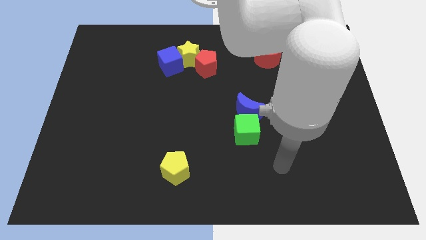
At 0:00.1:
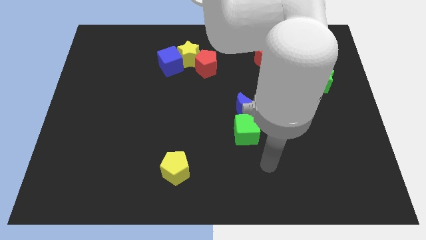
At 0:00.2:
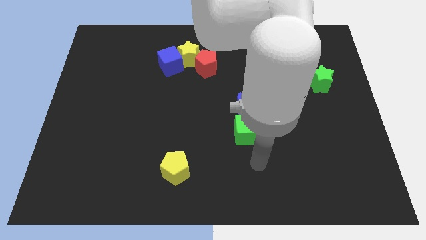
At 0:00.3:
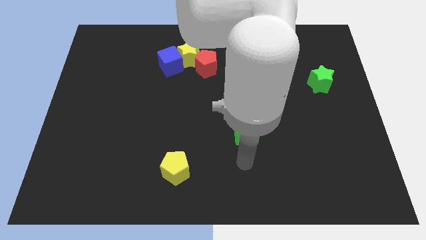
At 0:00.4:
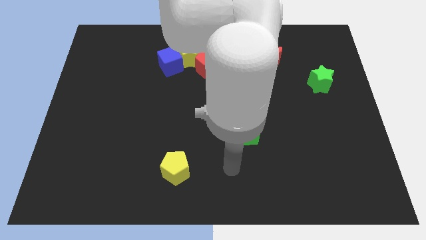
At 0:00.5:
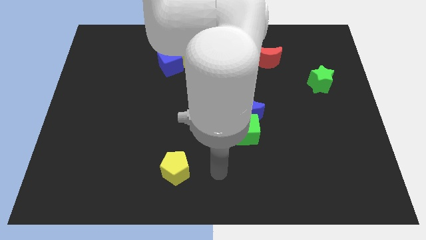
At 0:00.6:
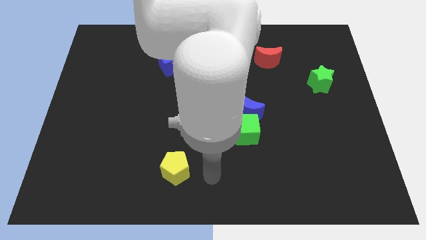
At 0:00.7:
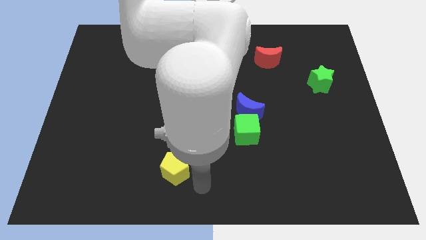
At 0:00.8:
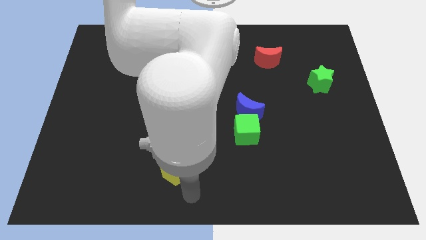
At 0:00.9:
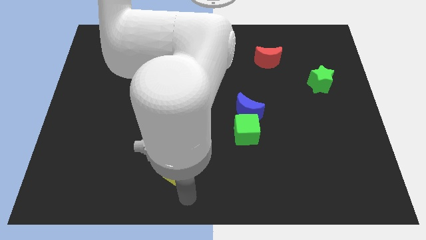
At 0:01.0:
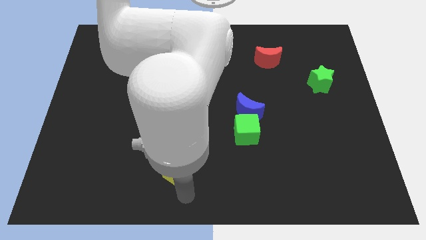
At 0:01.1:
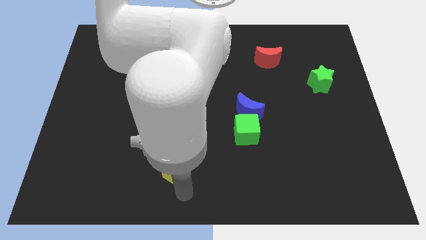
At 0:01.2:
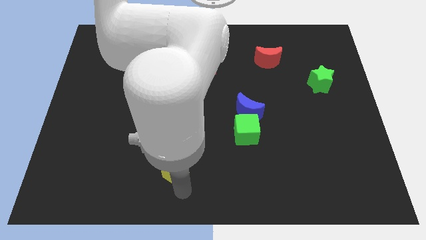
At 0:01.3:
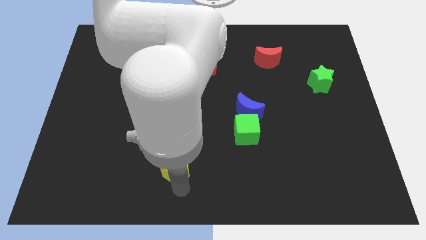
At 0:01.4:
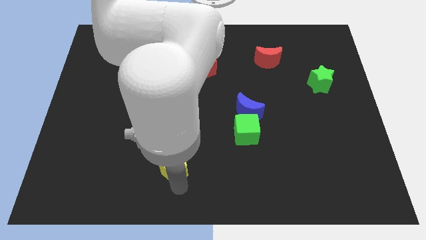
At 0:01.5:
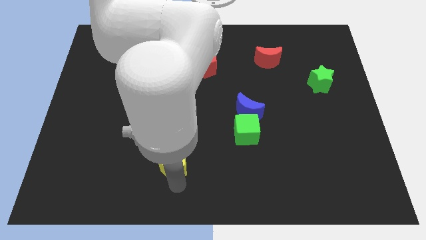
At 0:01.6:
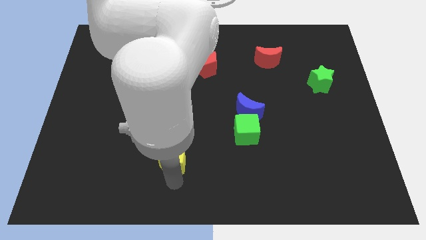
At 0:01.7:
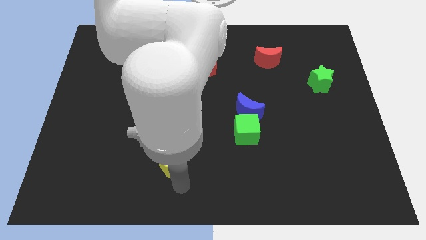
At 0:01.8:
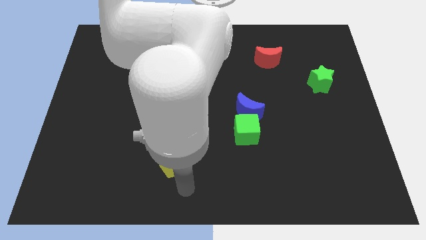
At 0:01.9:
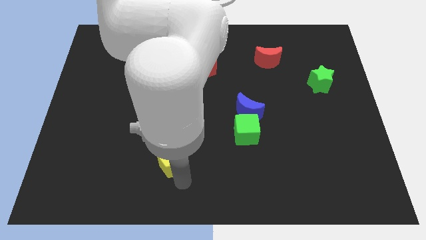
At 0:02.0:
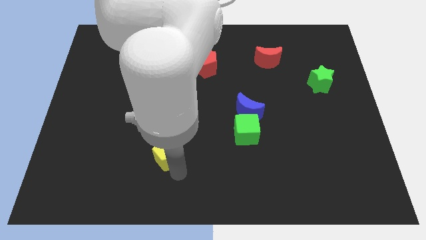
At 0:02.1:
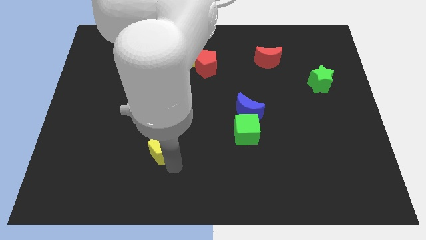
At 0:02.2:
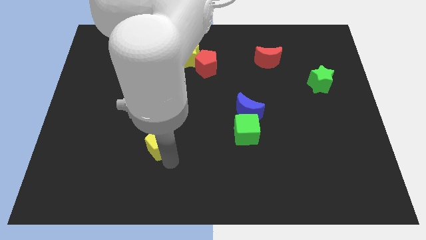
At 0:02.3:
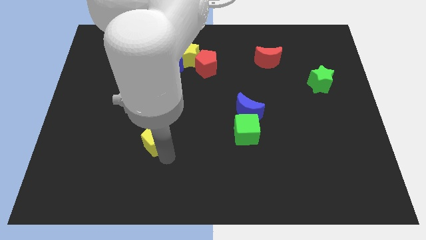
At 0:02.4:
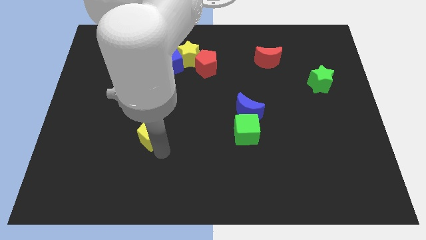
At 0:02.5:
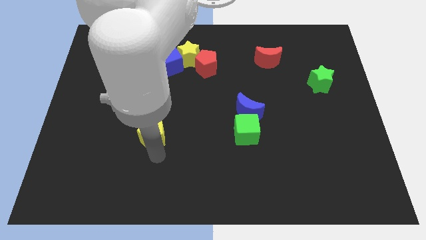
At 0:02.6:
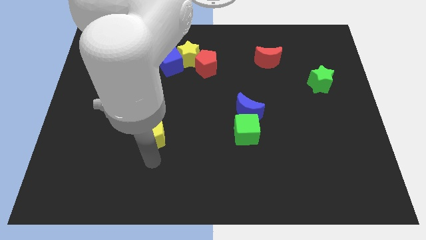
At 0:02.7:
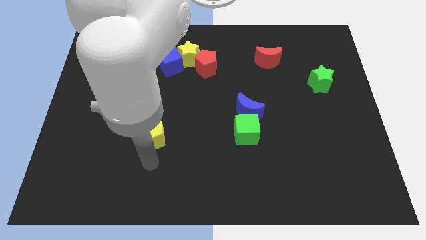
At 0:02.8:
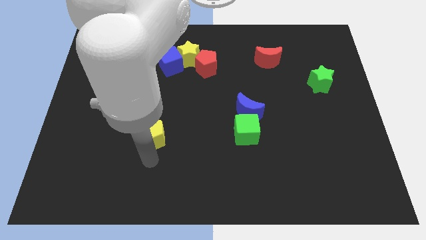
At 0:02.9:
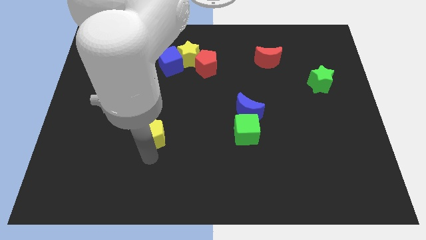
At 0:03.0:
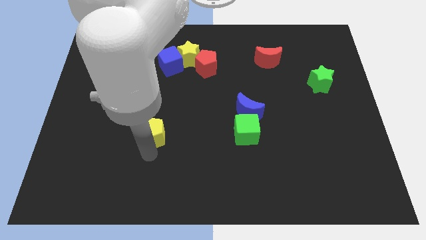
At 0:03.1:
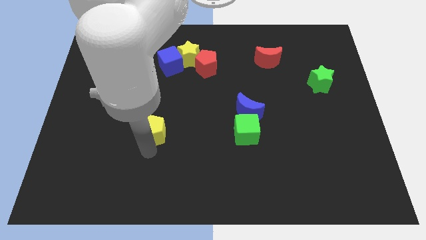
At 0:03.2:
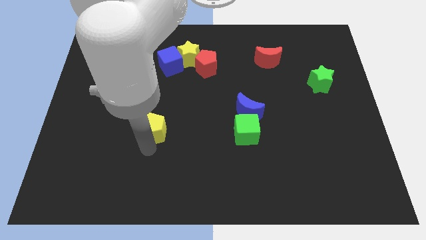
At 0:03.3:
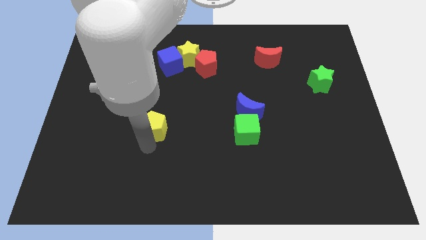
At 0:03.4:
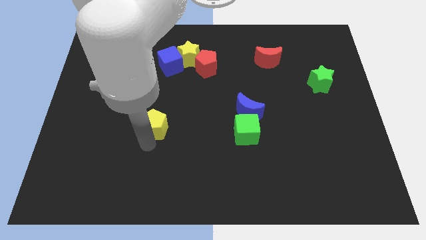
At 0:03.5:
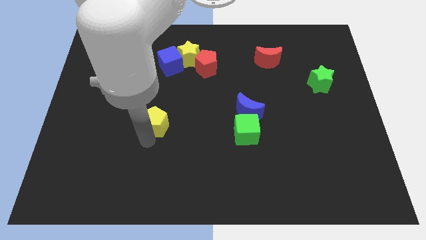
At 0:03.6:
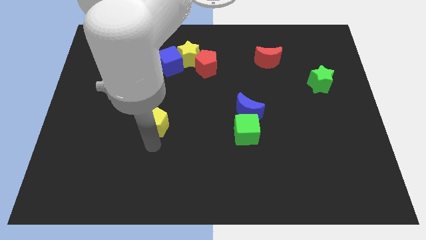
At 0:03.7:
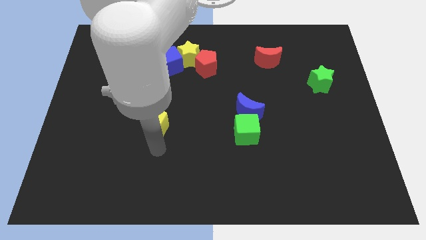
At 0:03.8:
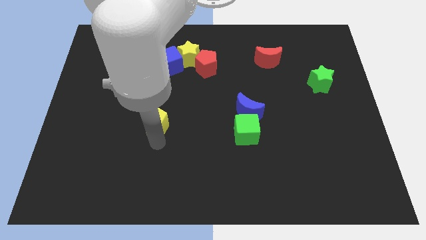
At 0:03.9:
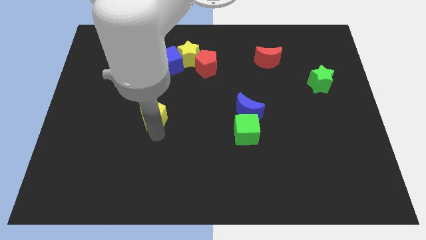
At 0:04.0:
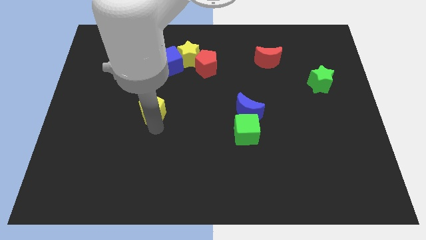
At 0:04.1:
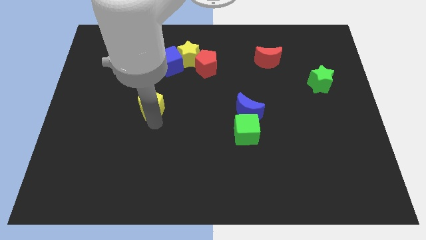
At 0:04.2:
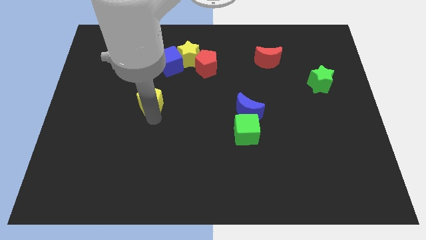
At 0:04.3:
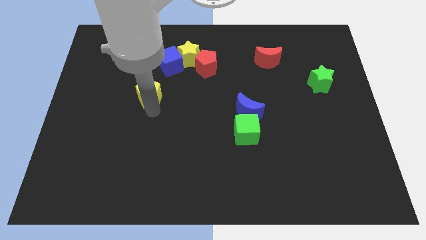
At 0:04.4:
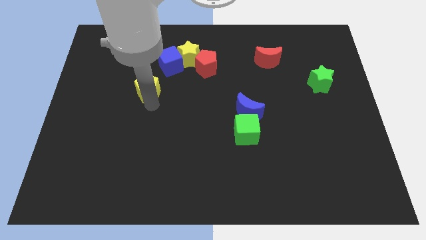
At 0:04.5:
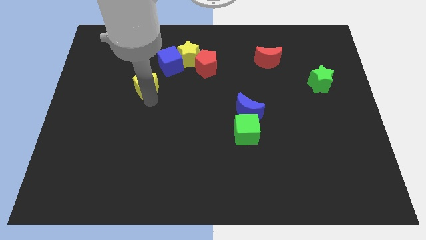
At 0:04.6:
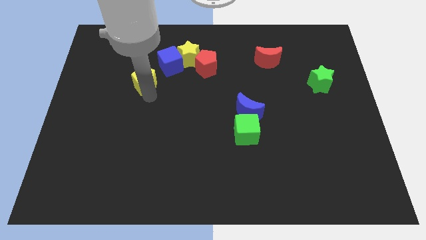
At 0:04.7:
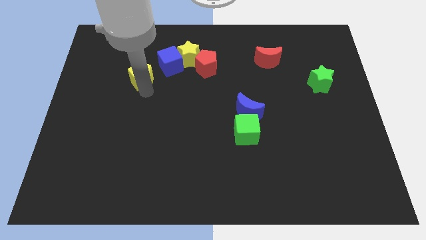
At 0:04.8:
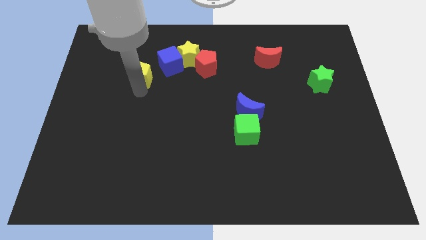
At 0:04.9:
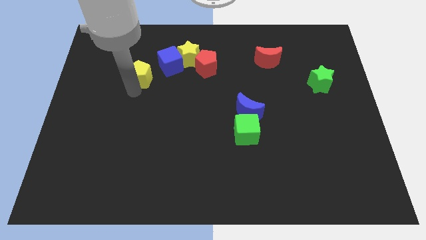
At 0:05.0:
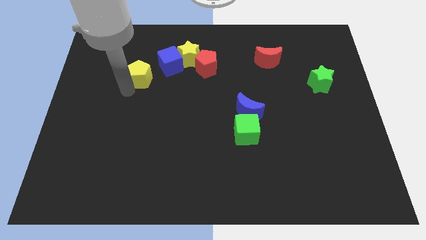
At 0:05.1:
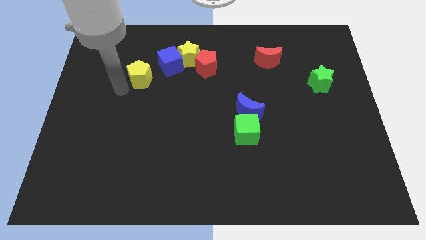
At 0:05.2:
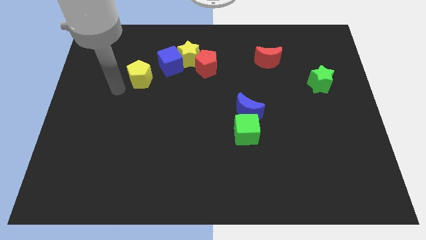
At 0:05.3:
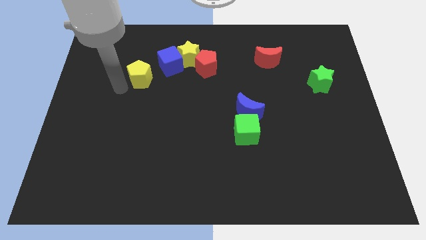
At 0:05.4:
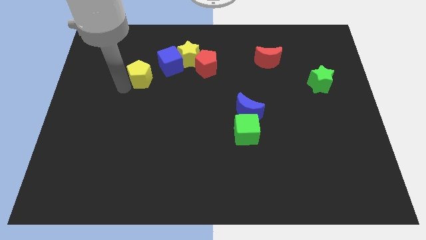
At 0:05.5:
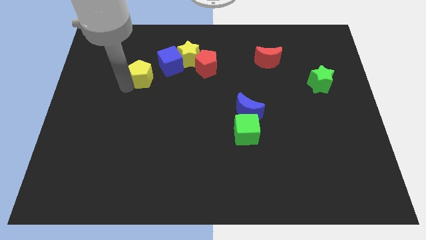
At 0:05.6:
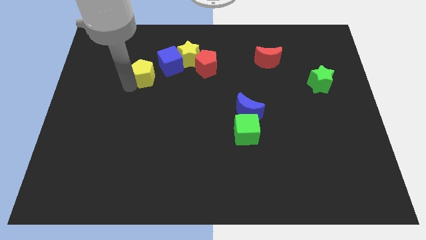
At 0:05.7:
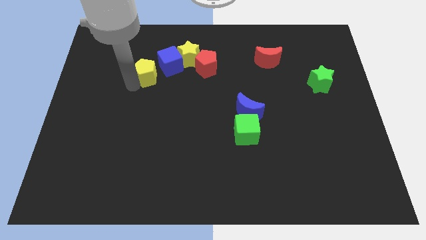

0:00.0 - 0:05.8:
slide the yellow pentagon to the left of the red pentagon

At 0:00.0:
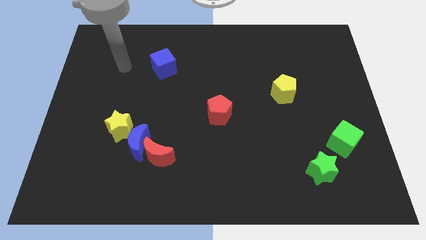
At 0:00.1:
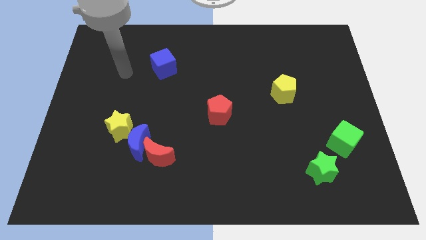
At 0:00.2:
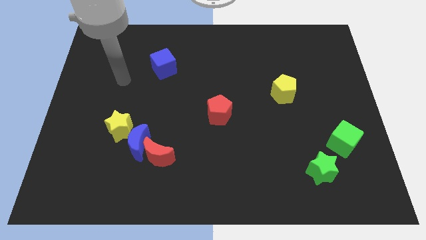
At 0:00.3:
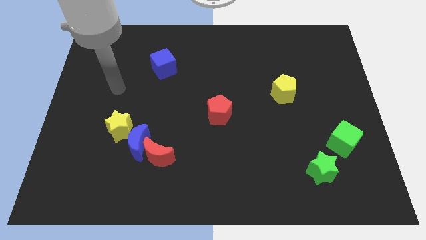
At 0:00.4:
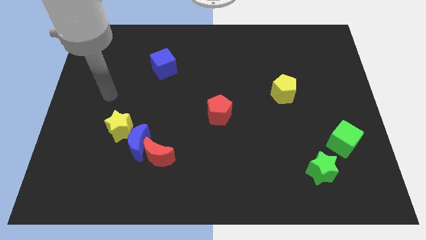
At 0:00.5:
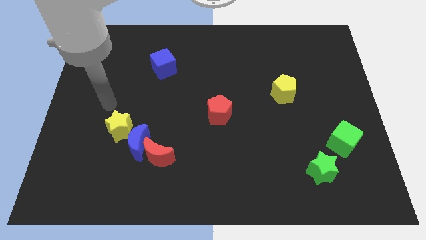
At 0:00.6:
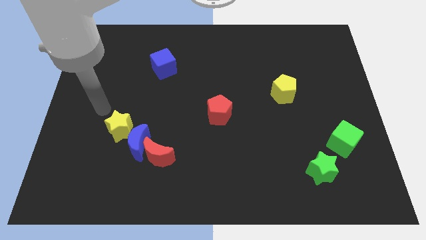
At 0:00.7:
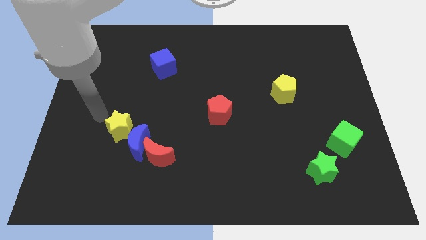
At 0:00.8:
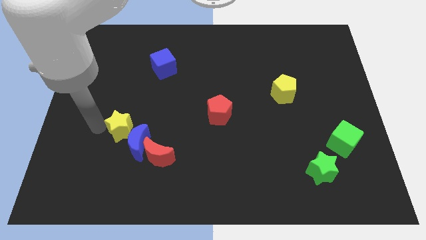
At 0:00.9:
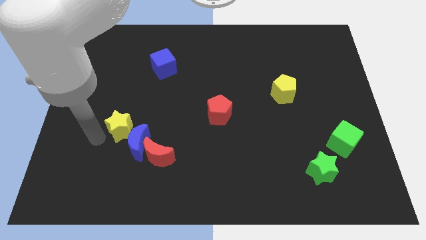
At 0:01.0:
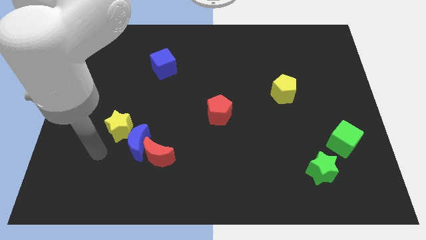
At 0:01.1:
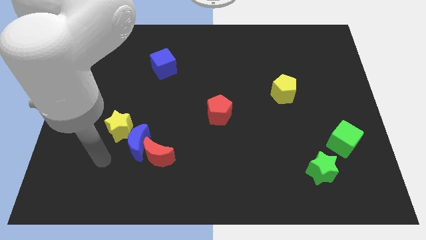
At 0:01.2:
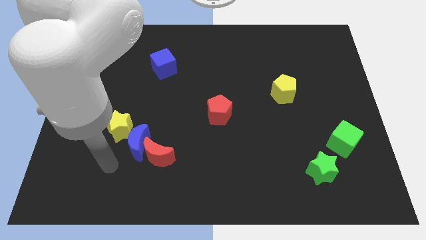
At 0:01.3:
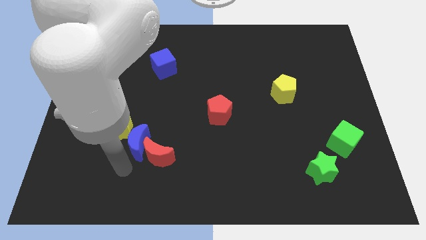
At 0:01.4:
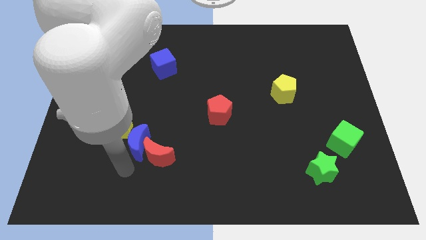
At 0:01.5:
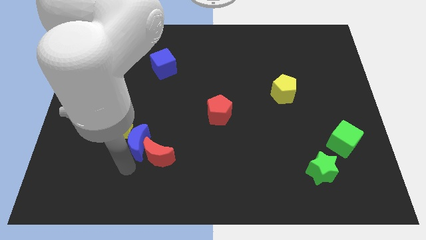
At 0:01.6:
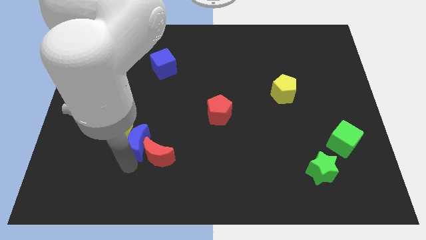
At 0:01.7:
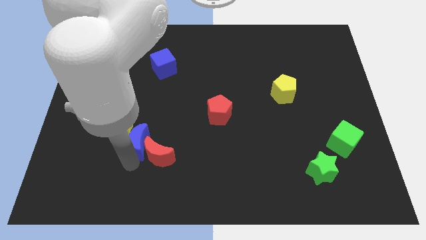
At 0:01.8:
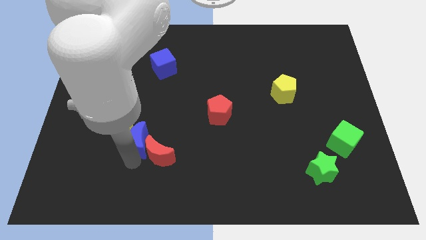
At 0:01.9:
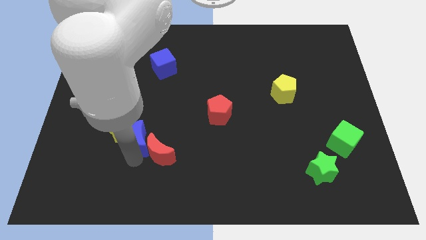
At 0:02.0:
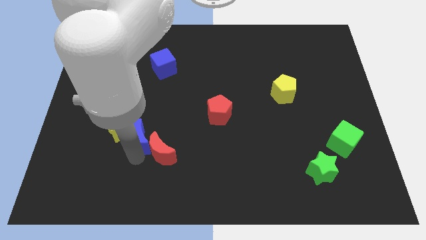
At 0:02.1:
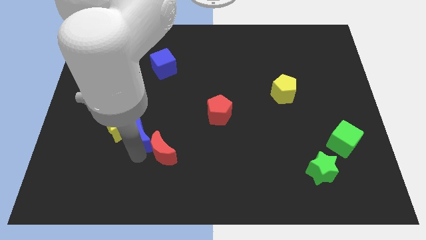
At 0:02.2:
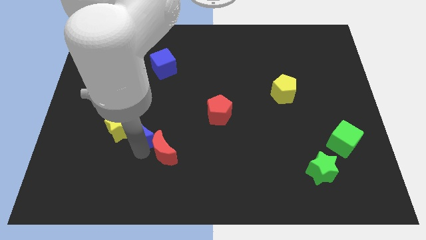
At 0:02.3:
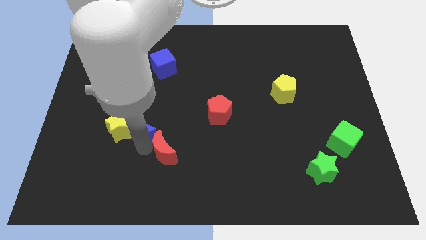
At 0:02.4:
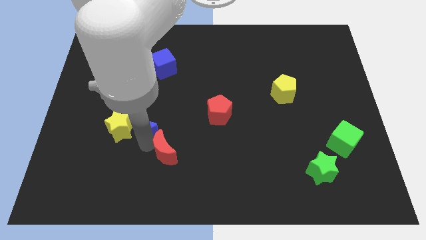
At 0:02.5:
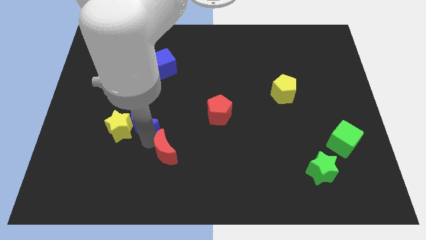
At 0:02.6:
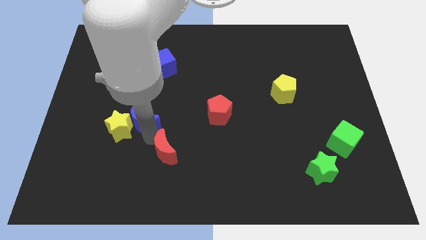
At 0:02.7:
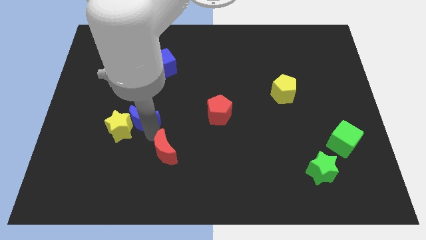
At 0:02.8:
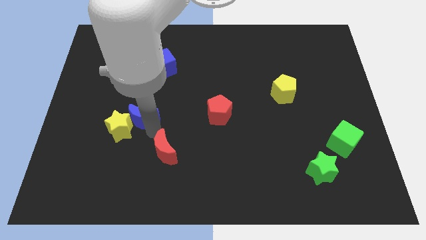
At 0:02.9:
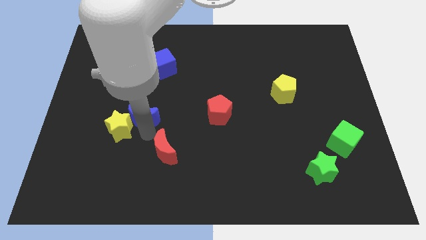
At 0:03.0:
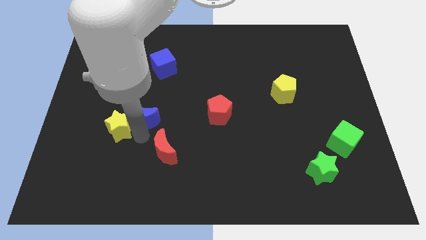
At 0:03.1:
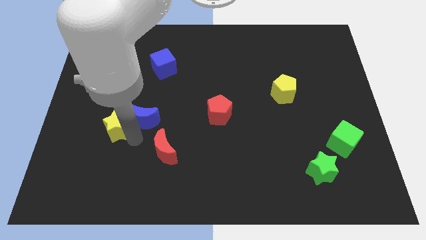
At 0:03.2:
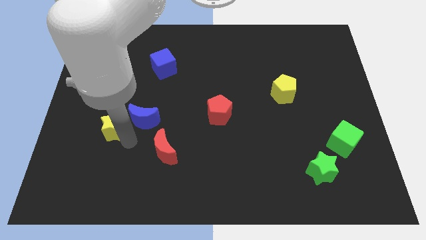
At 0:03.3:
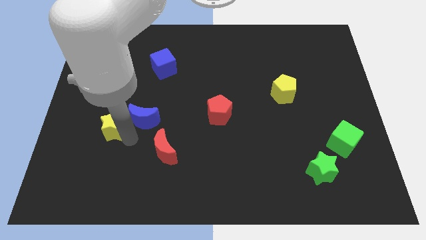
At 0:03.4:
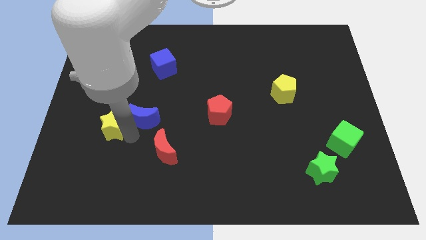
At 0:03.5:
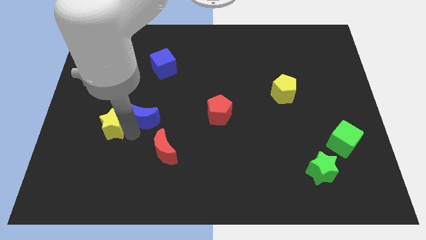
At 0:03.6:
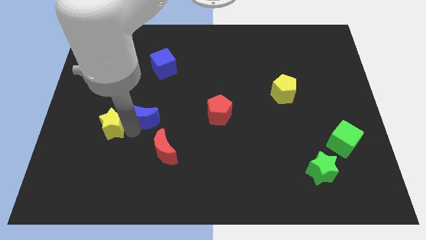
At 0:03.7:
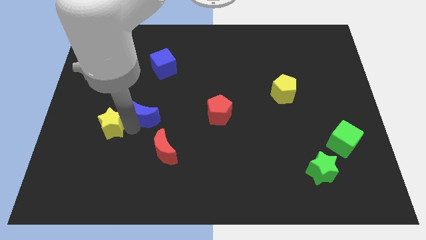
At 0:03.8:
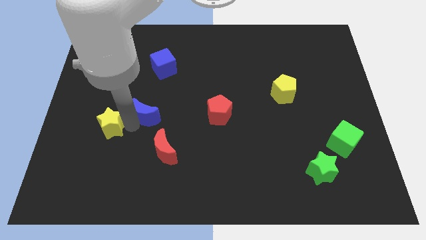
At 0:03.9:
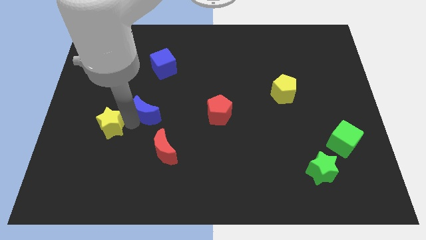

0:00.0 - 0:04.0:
move the blue moon below the blue cube
